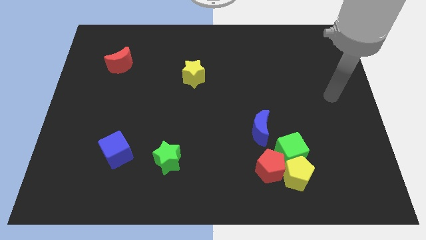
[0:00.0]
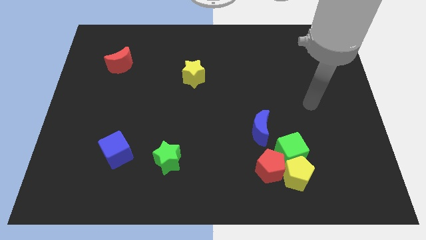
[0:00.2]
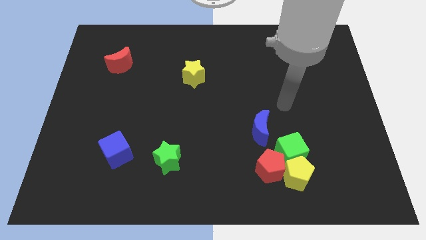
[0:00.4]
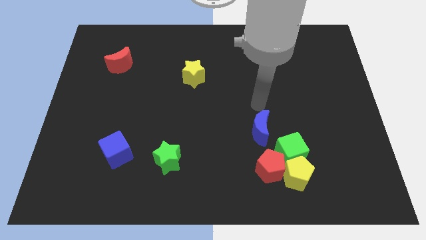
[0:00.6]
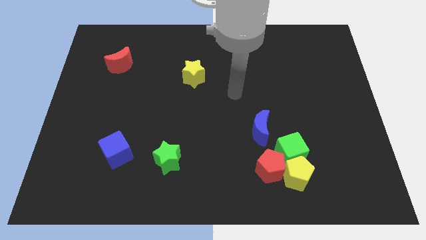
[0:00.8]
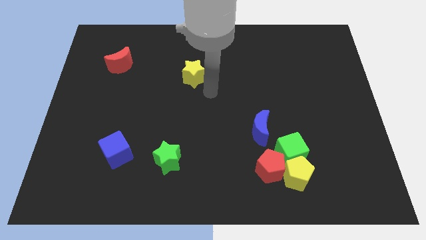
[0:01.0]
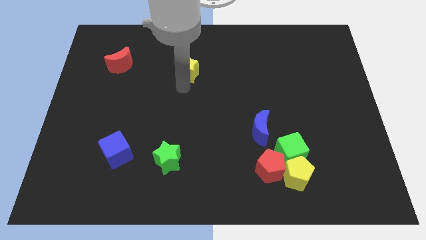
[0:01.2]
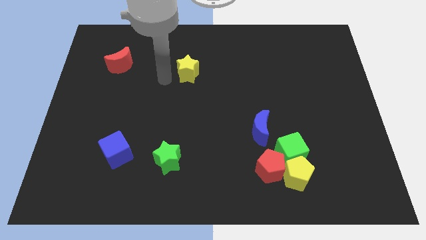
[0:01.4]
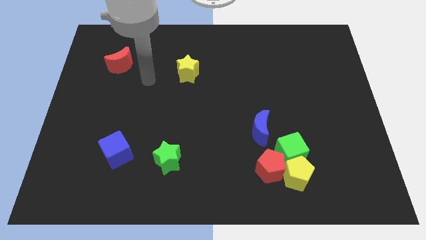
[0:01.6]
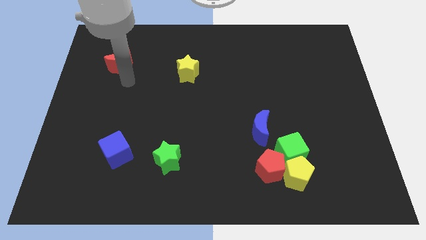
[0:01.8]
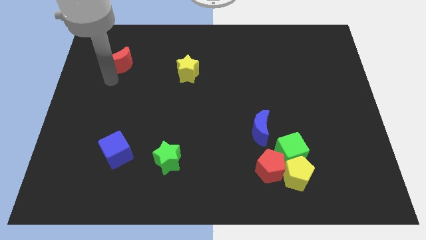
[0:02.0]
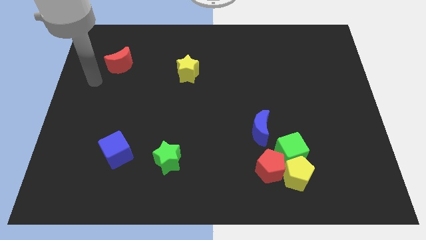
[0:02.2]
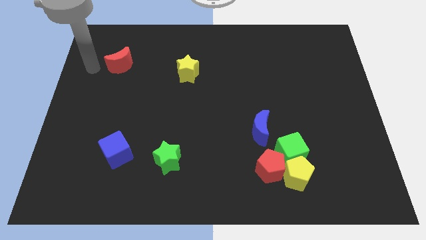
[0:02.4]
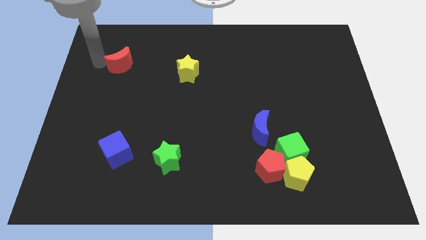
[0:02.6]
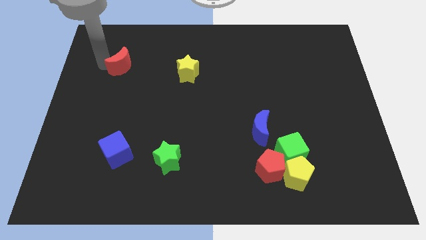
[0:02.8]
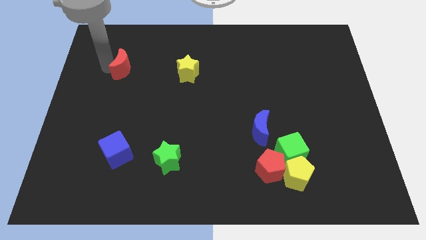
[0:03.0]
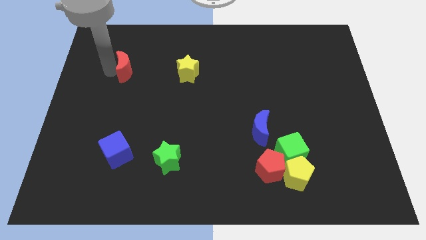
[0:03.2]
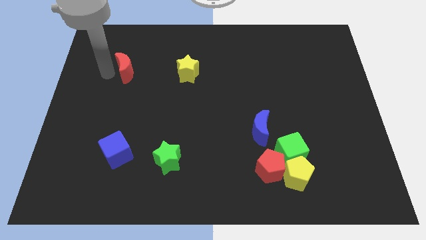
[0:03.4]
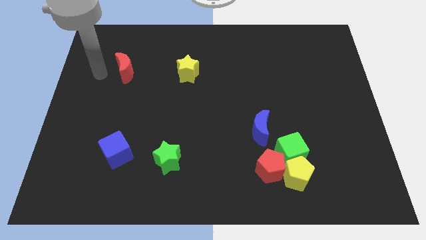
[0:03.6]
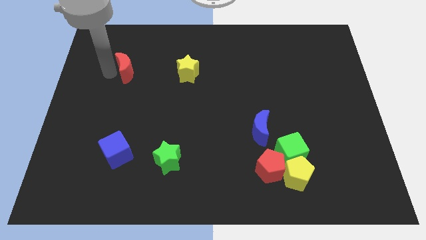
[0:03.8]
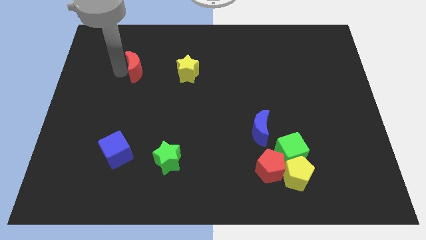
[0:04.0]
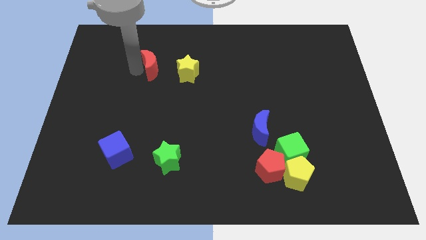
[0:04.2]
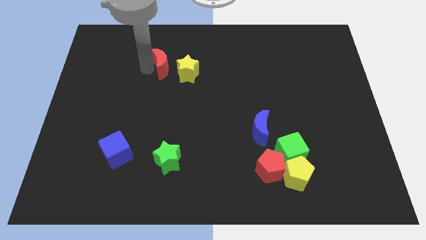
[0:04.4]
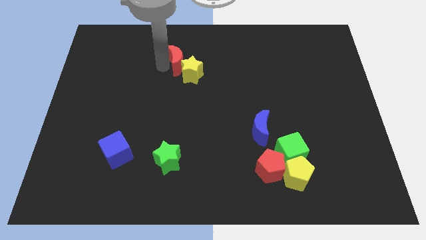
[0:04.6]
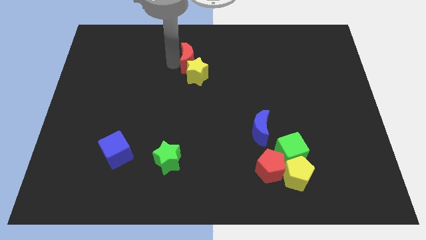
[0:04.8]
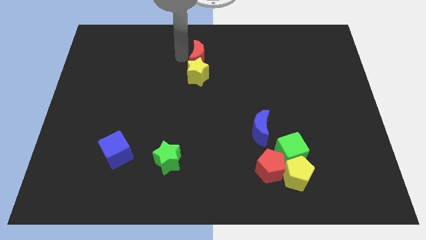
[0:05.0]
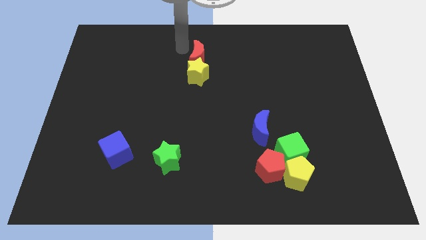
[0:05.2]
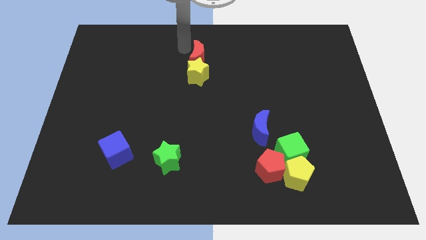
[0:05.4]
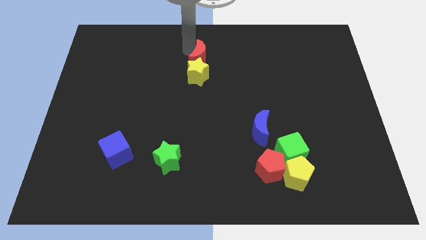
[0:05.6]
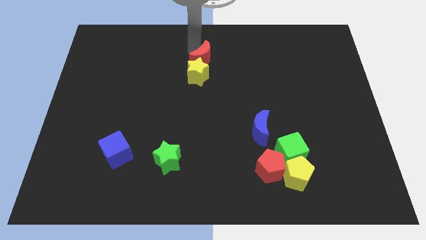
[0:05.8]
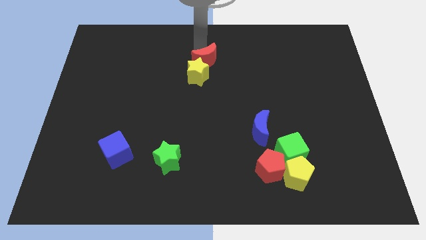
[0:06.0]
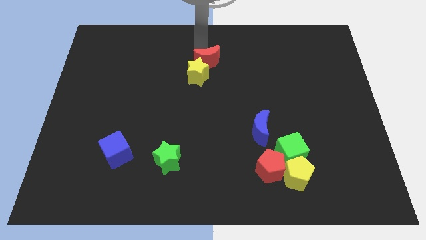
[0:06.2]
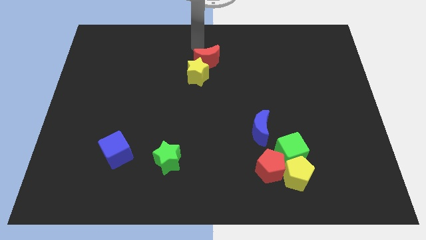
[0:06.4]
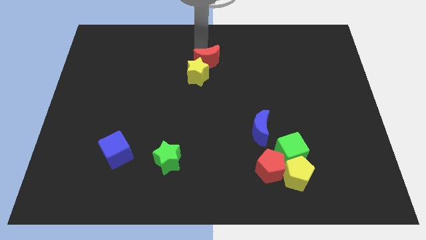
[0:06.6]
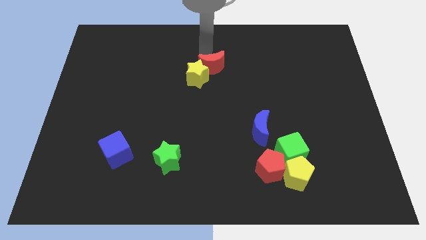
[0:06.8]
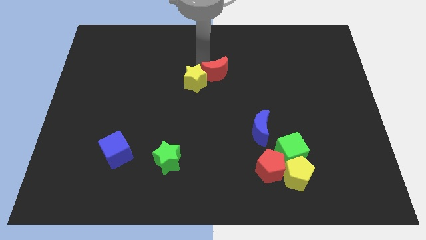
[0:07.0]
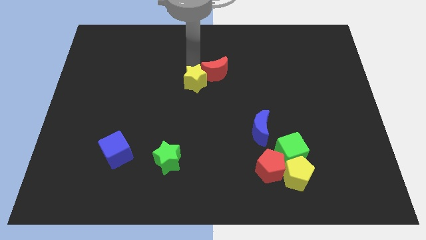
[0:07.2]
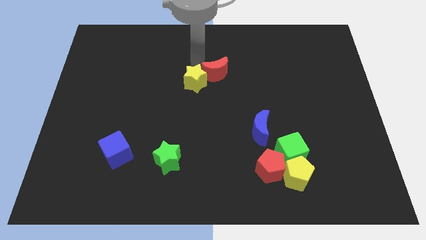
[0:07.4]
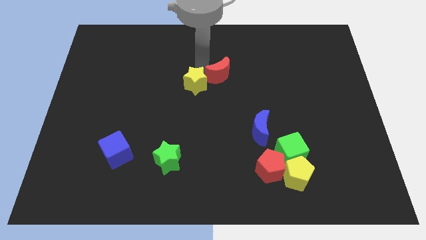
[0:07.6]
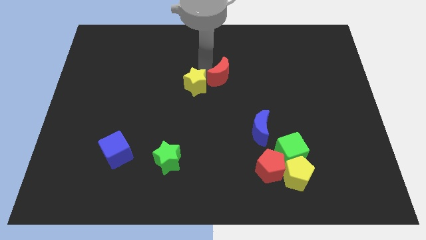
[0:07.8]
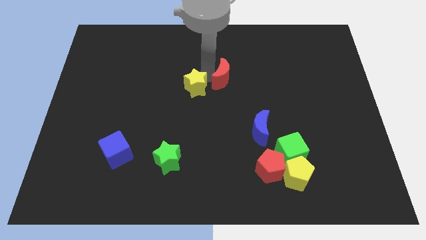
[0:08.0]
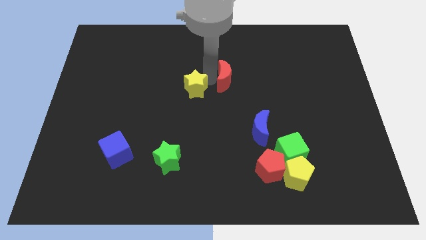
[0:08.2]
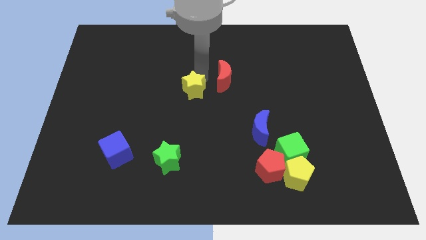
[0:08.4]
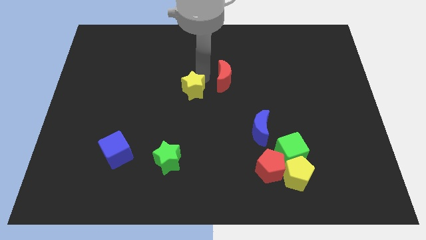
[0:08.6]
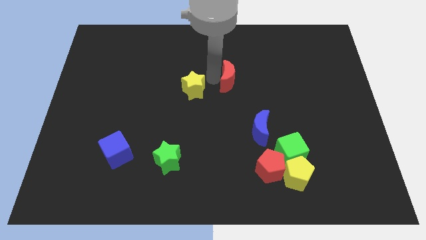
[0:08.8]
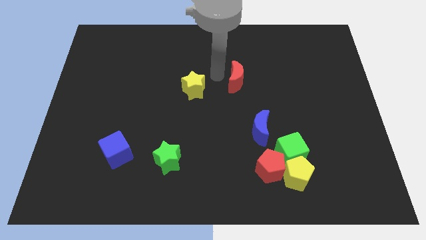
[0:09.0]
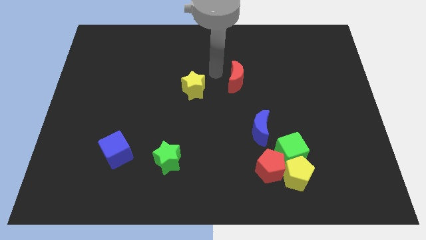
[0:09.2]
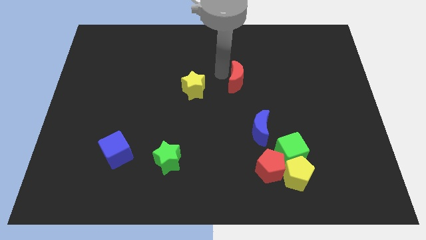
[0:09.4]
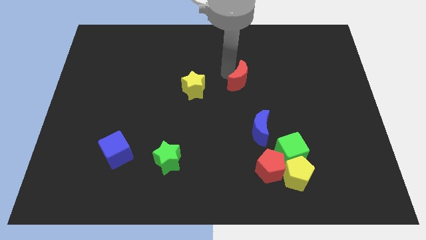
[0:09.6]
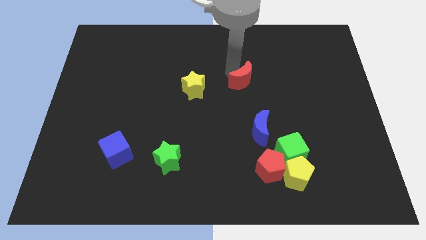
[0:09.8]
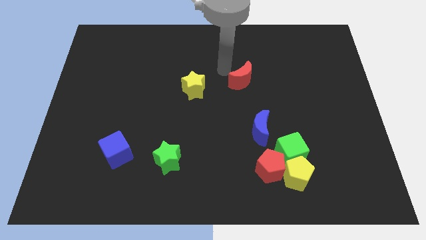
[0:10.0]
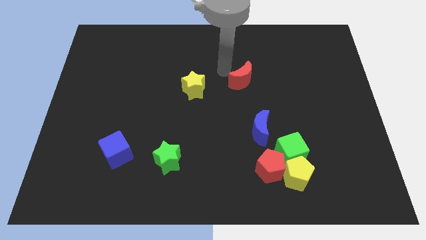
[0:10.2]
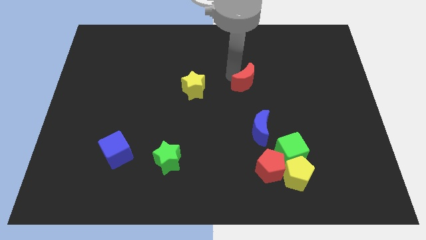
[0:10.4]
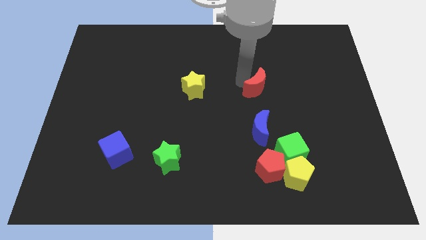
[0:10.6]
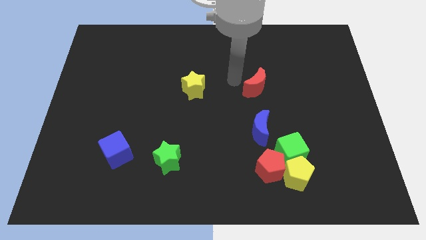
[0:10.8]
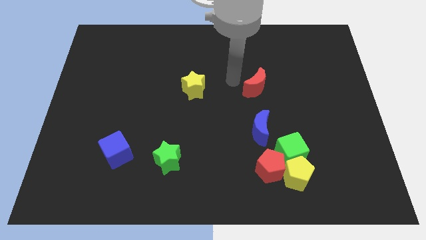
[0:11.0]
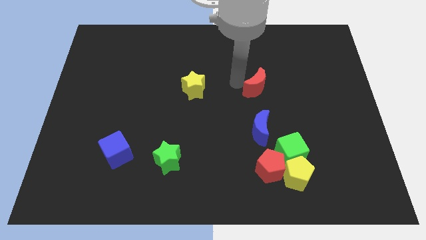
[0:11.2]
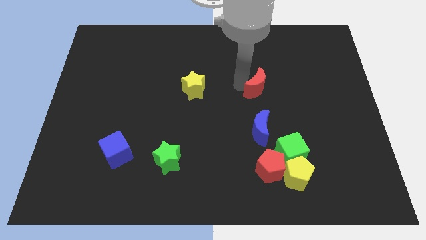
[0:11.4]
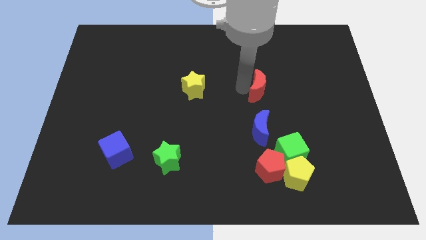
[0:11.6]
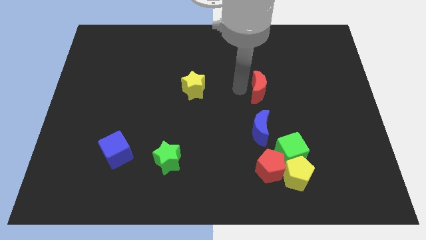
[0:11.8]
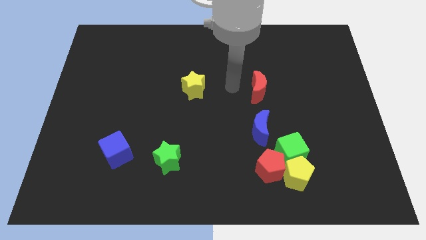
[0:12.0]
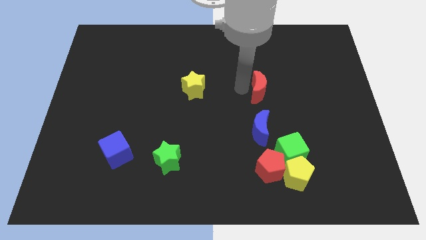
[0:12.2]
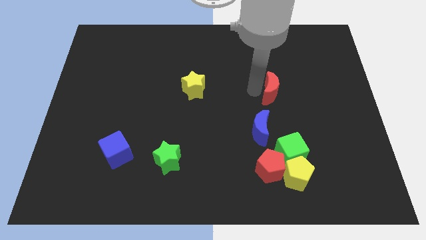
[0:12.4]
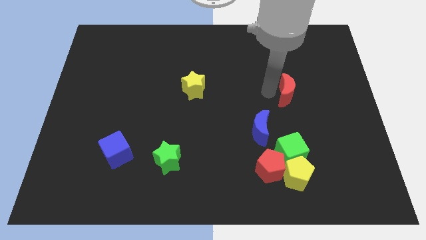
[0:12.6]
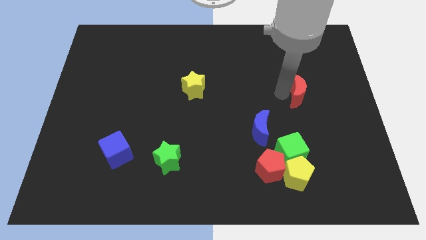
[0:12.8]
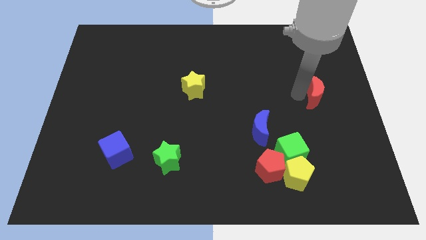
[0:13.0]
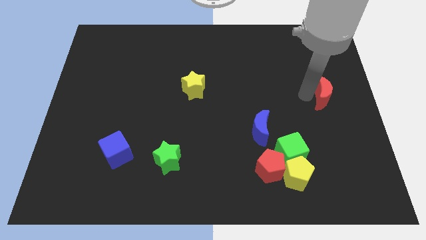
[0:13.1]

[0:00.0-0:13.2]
slide the red moon to the right side of the board
